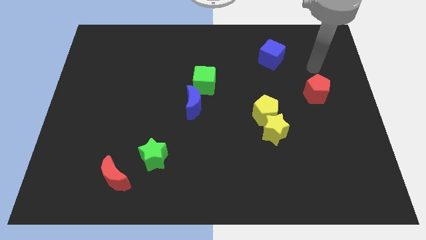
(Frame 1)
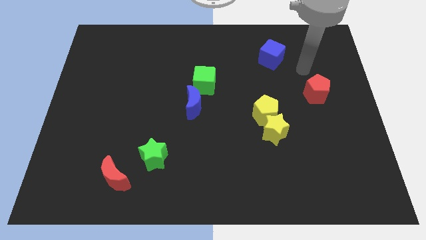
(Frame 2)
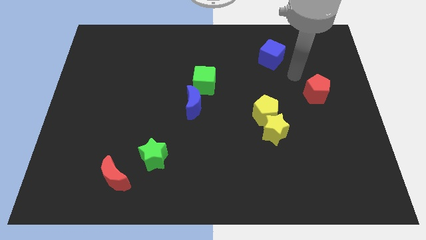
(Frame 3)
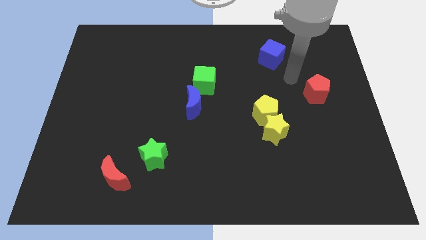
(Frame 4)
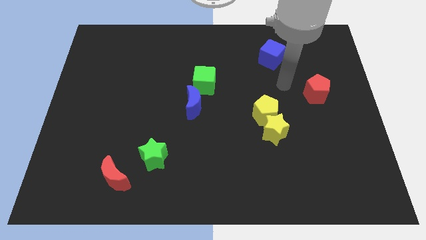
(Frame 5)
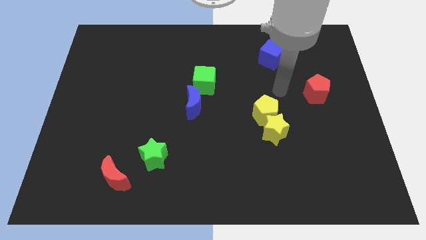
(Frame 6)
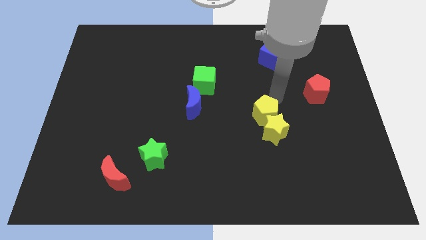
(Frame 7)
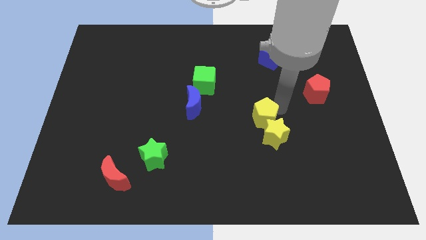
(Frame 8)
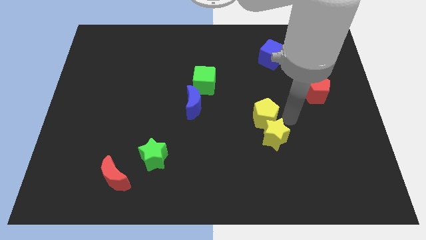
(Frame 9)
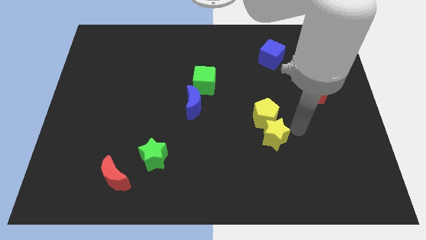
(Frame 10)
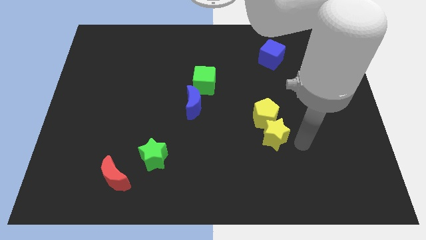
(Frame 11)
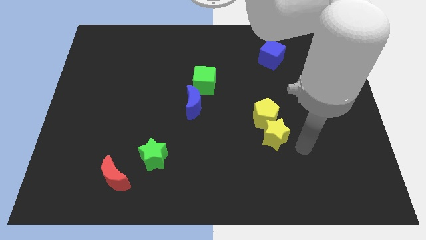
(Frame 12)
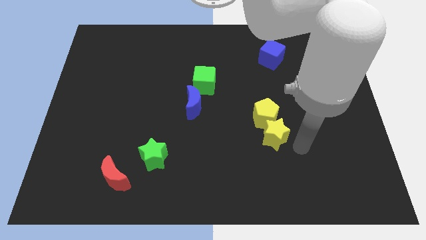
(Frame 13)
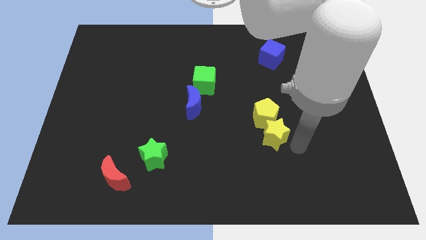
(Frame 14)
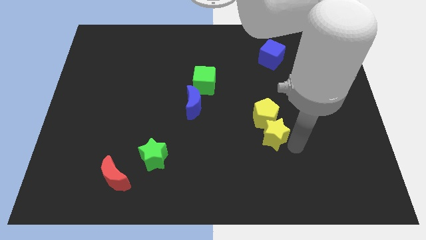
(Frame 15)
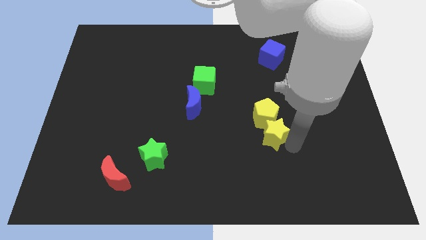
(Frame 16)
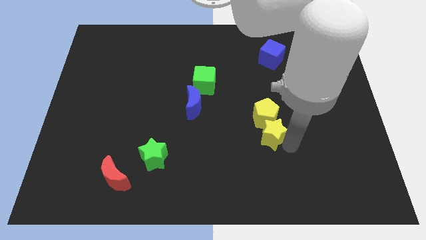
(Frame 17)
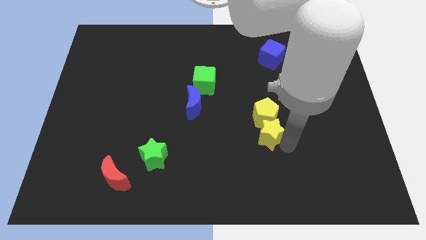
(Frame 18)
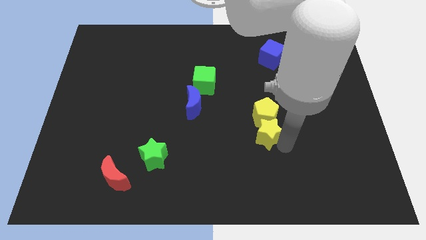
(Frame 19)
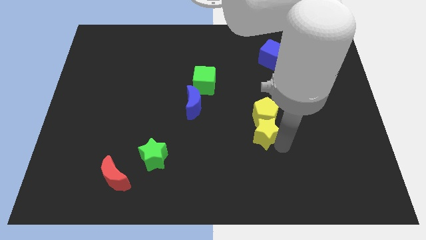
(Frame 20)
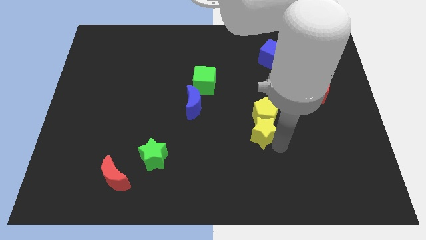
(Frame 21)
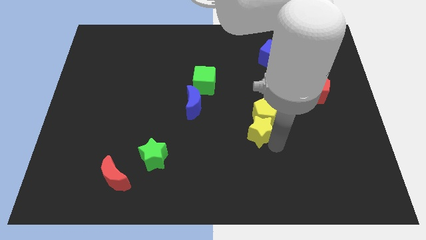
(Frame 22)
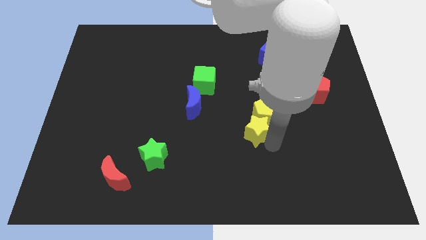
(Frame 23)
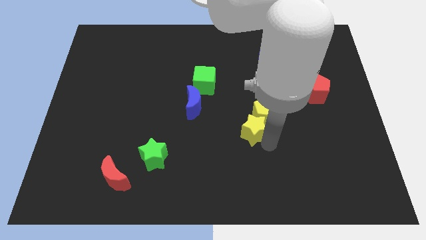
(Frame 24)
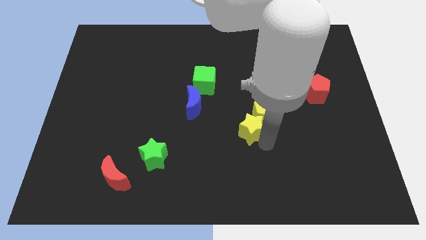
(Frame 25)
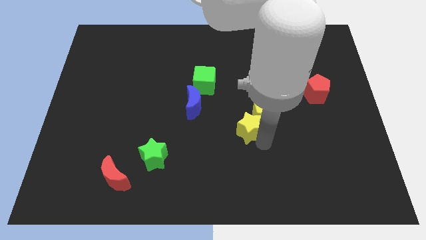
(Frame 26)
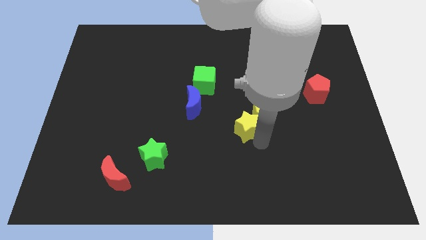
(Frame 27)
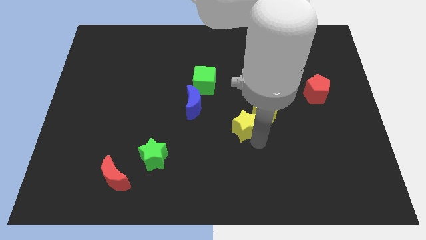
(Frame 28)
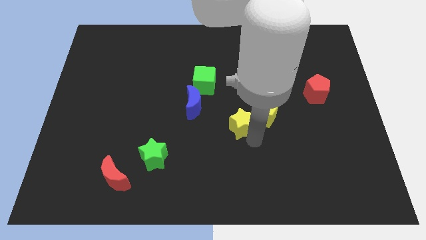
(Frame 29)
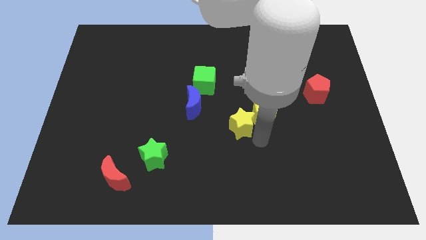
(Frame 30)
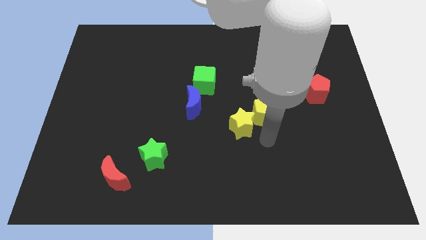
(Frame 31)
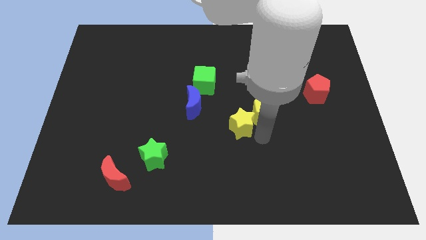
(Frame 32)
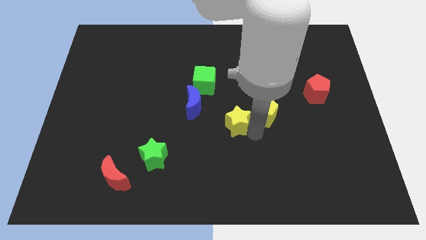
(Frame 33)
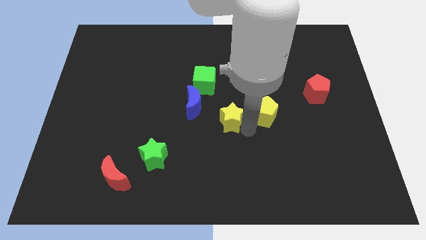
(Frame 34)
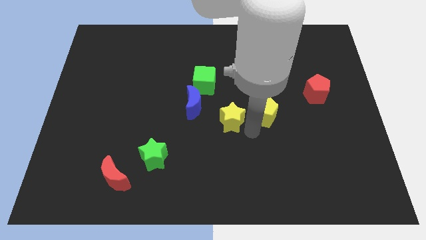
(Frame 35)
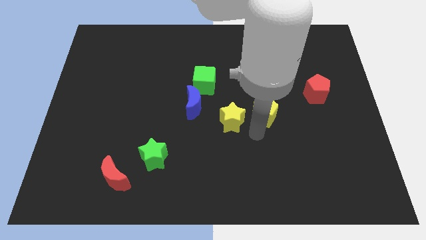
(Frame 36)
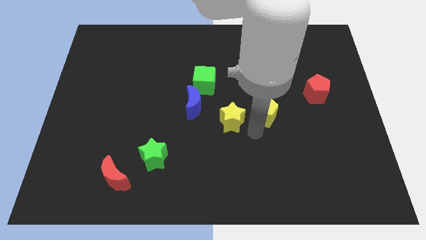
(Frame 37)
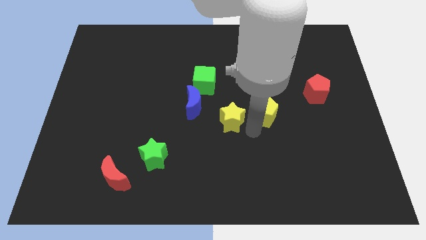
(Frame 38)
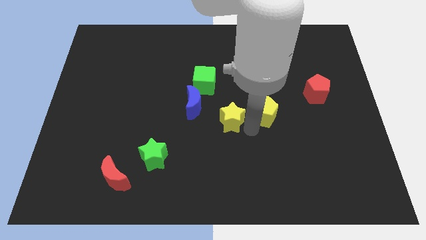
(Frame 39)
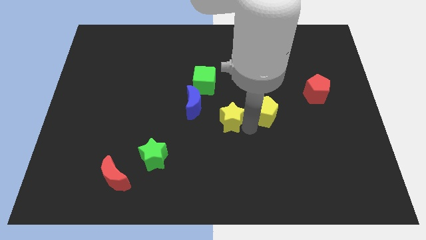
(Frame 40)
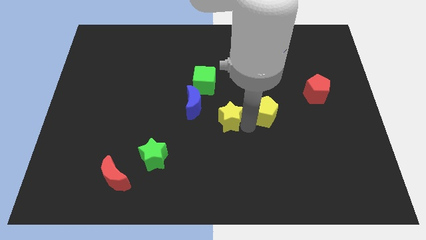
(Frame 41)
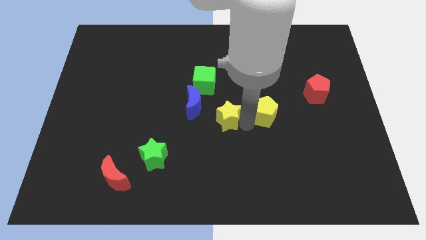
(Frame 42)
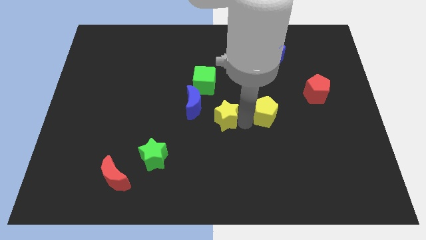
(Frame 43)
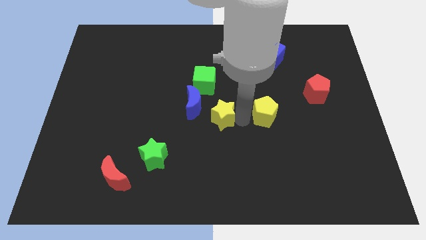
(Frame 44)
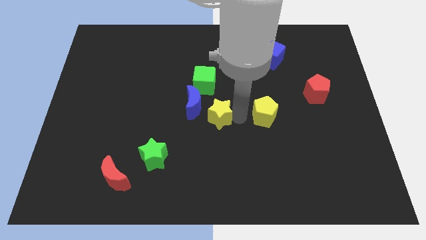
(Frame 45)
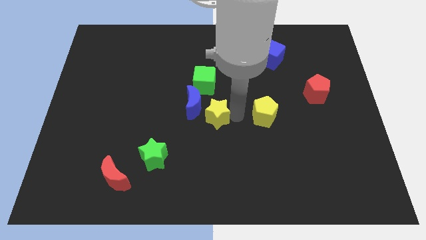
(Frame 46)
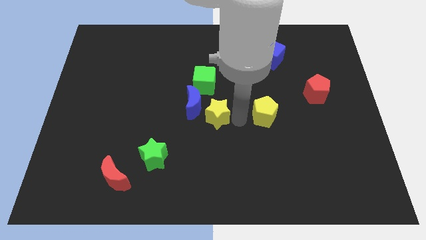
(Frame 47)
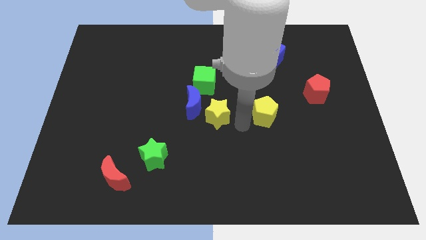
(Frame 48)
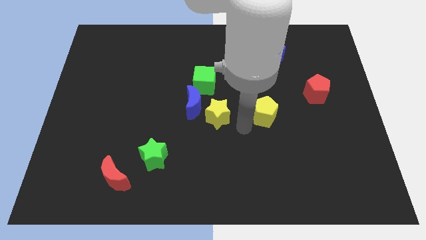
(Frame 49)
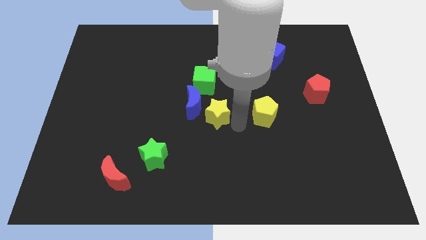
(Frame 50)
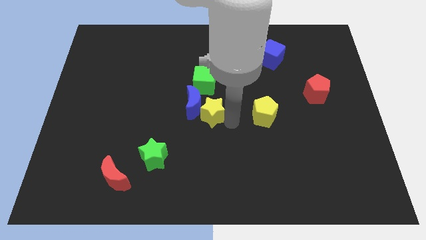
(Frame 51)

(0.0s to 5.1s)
slide the yellow star to the blue moon

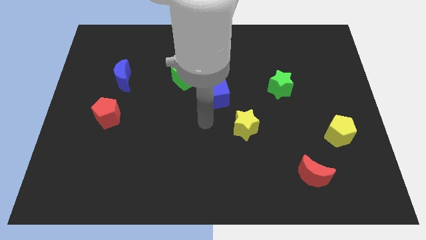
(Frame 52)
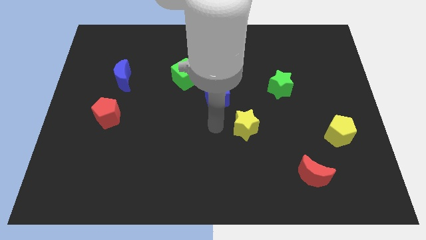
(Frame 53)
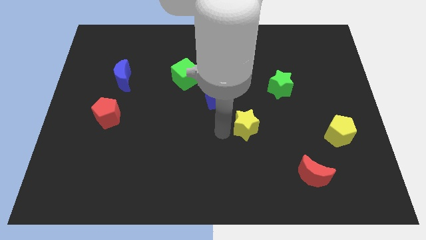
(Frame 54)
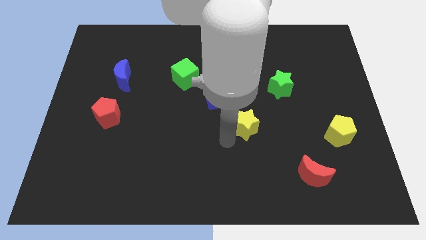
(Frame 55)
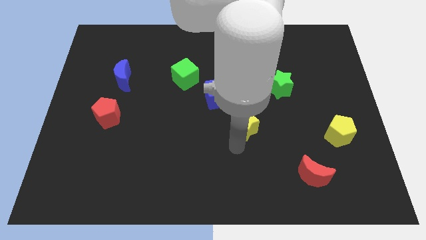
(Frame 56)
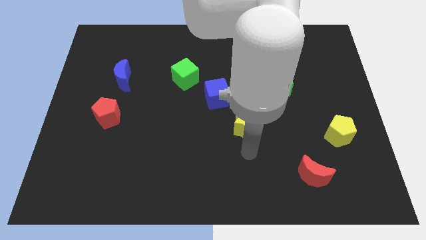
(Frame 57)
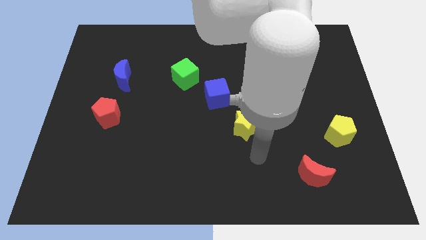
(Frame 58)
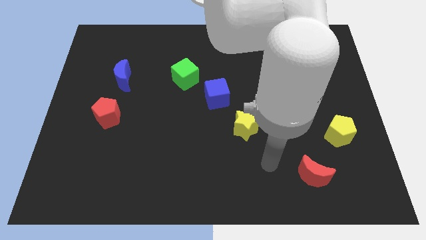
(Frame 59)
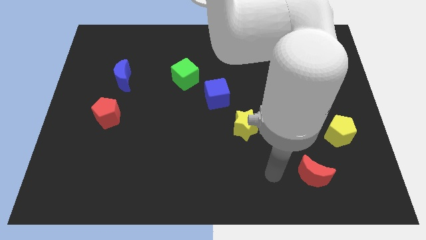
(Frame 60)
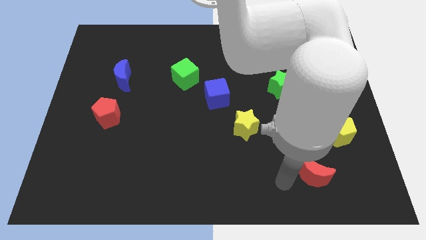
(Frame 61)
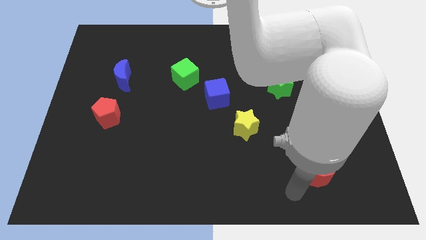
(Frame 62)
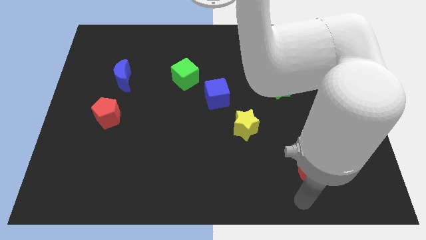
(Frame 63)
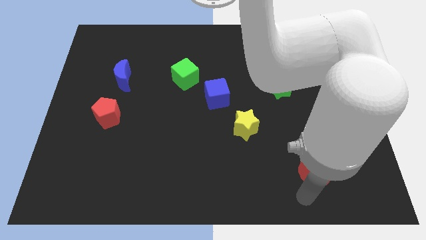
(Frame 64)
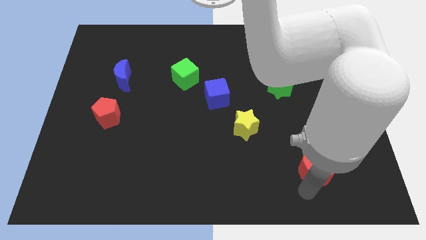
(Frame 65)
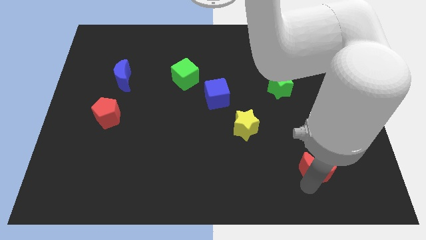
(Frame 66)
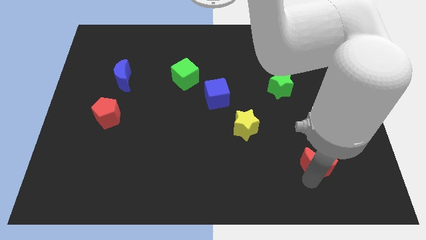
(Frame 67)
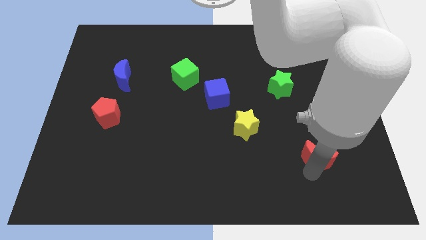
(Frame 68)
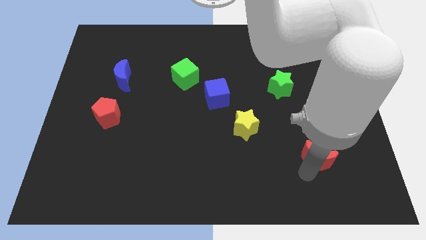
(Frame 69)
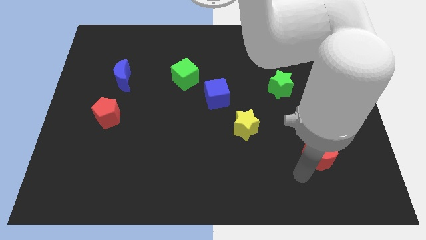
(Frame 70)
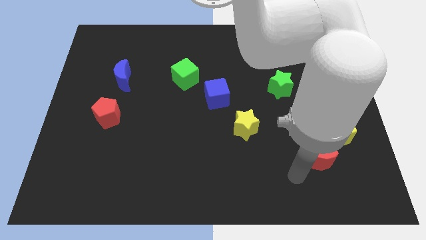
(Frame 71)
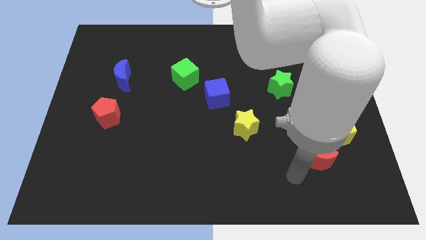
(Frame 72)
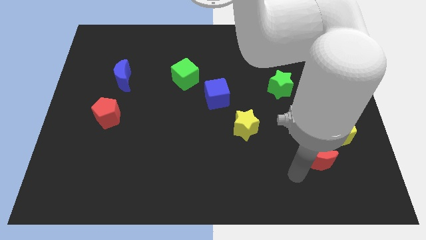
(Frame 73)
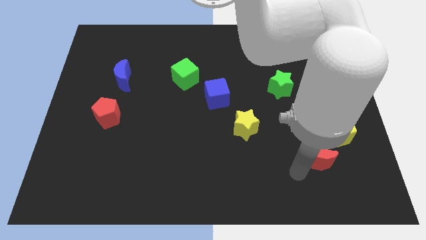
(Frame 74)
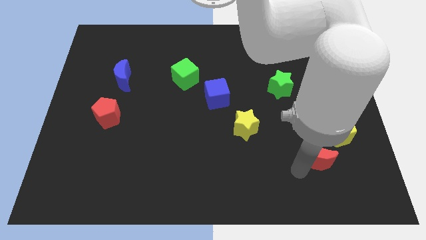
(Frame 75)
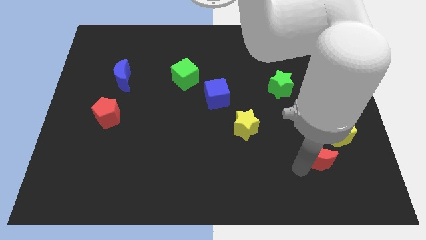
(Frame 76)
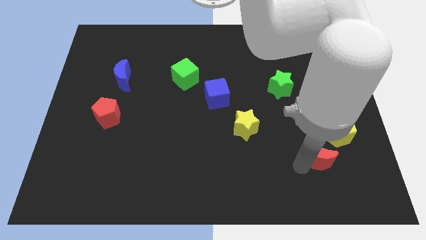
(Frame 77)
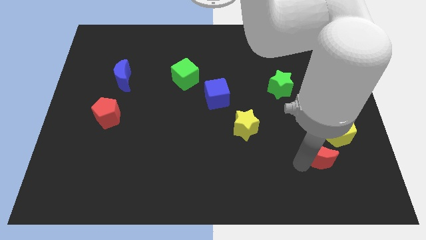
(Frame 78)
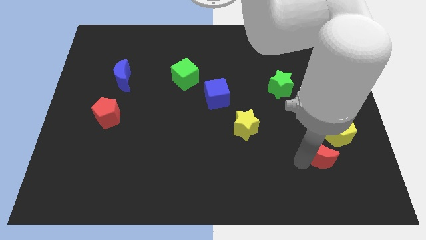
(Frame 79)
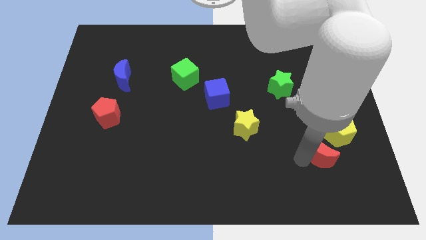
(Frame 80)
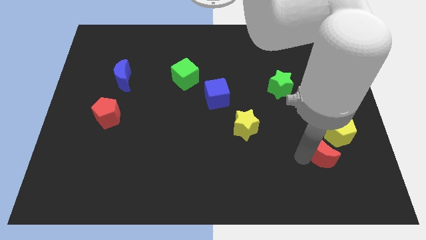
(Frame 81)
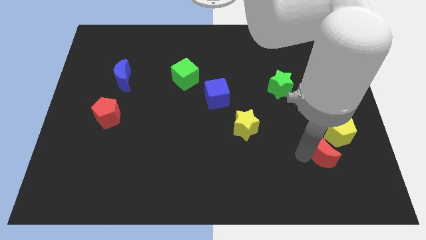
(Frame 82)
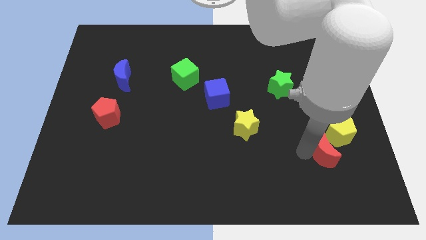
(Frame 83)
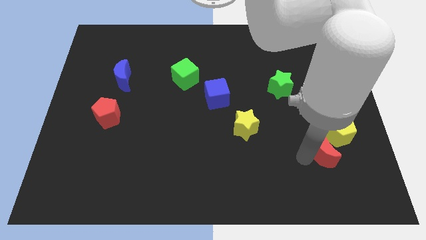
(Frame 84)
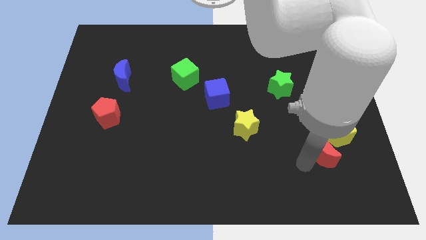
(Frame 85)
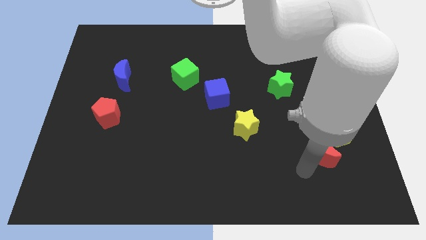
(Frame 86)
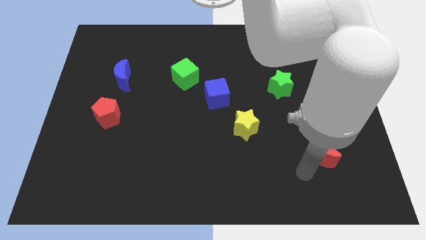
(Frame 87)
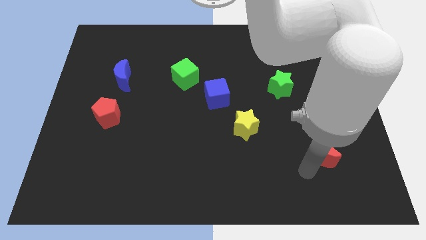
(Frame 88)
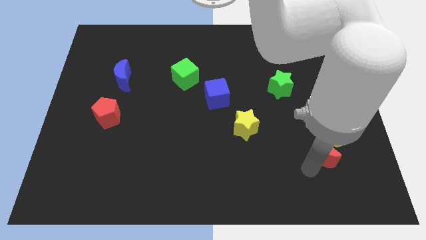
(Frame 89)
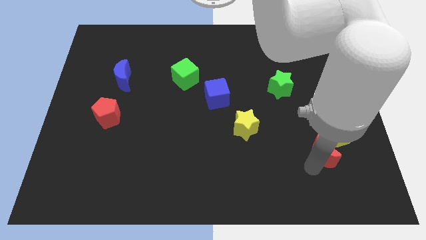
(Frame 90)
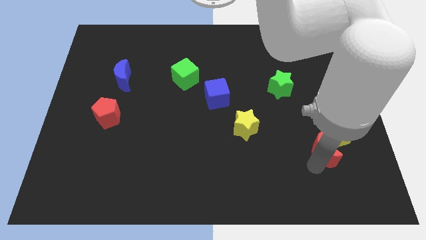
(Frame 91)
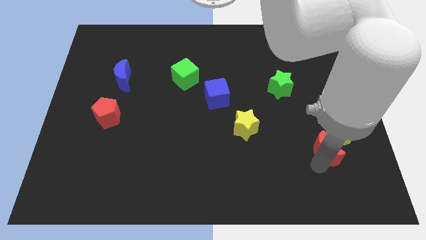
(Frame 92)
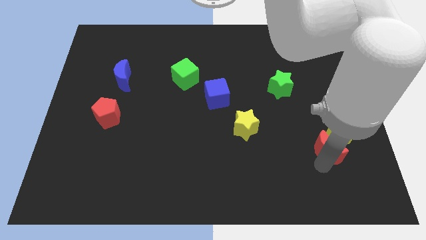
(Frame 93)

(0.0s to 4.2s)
put the red moon close to the yellow pentagon
